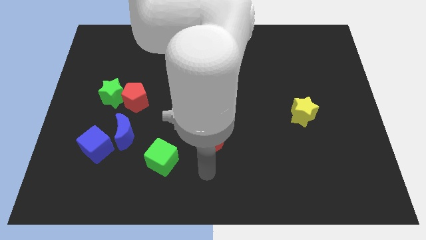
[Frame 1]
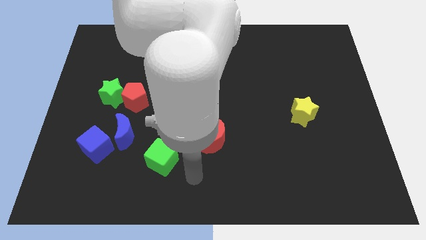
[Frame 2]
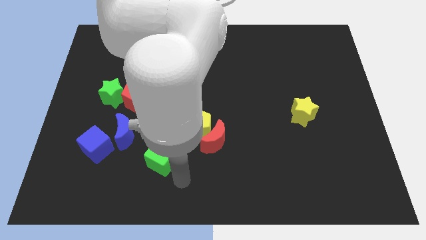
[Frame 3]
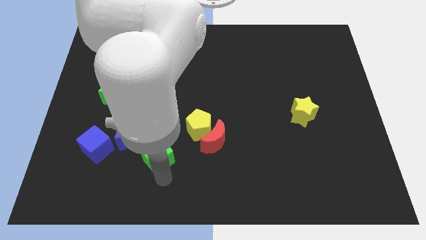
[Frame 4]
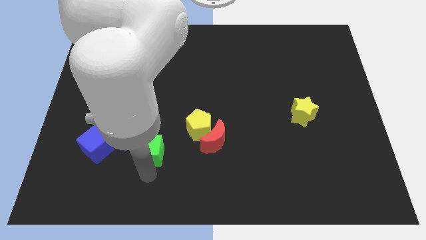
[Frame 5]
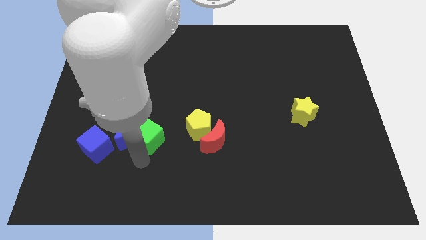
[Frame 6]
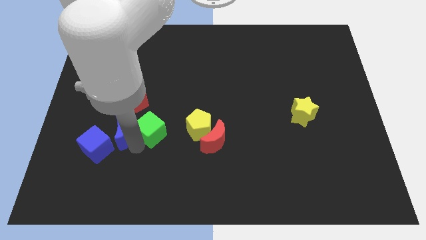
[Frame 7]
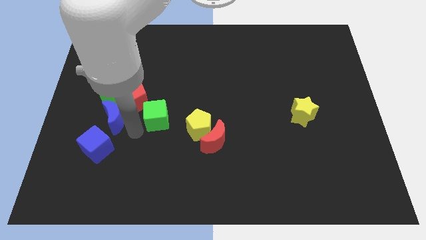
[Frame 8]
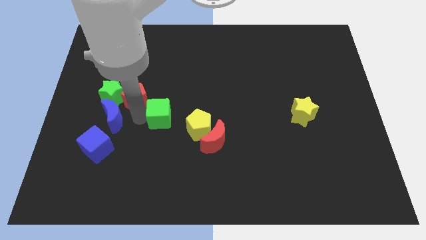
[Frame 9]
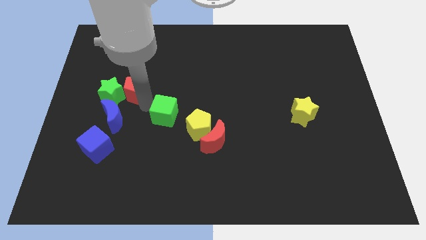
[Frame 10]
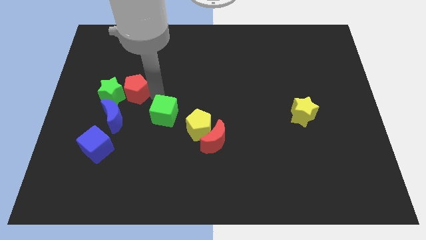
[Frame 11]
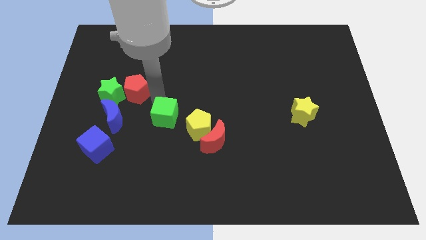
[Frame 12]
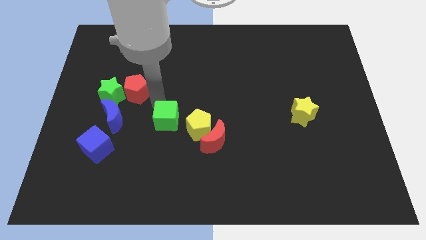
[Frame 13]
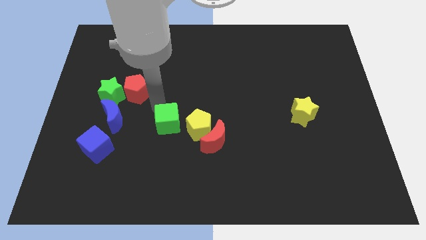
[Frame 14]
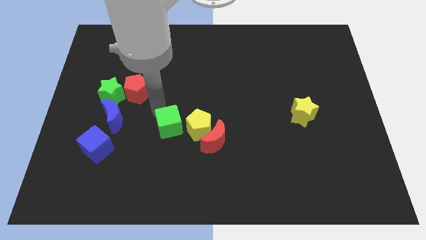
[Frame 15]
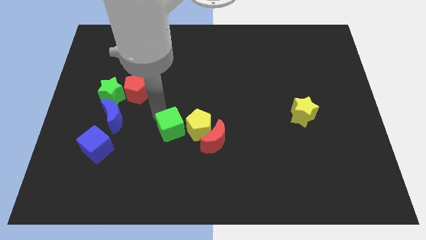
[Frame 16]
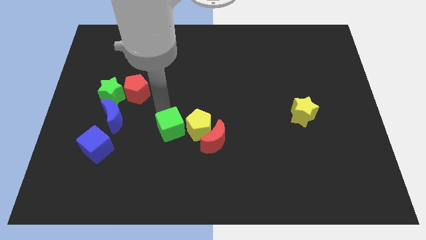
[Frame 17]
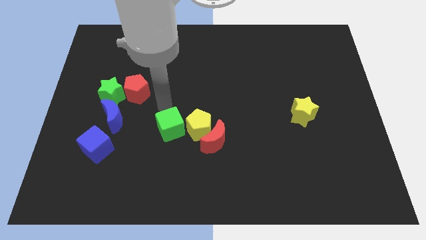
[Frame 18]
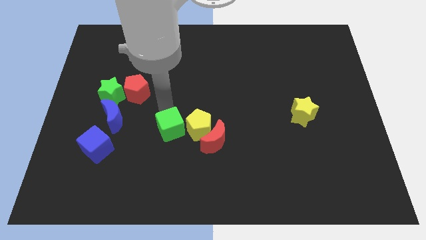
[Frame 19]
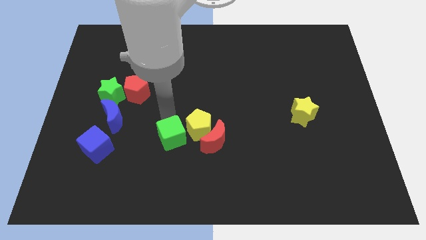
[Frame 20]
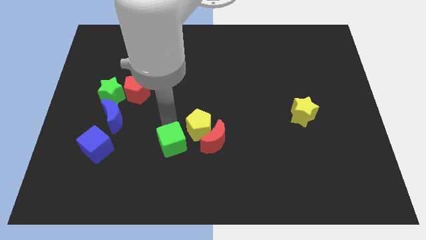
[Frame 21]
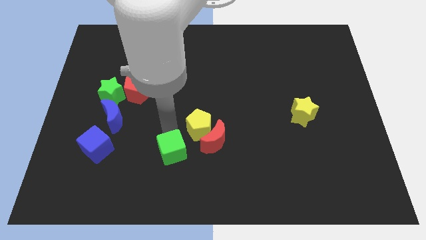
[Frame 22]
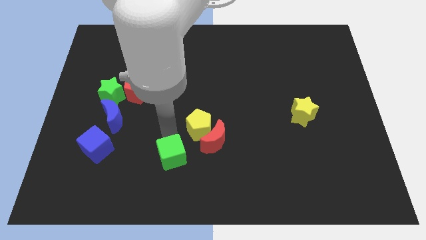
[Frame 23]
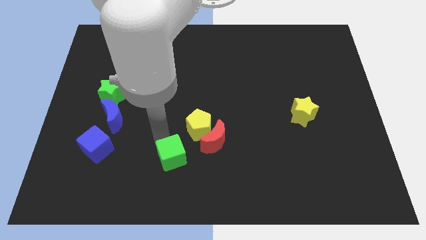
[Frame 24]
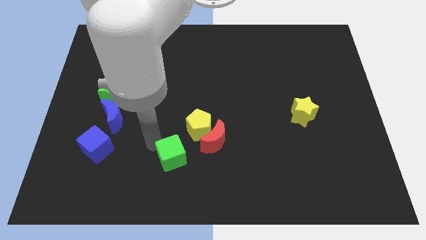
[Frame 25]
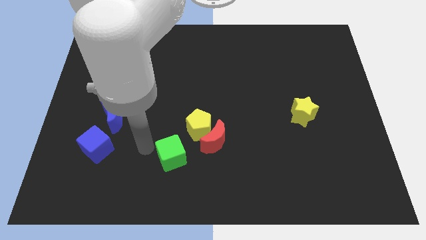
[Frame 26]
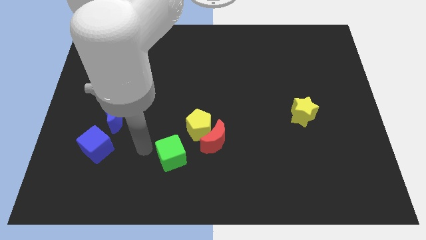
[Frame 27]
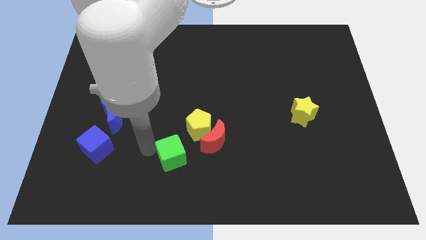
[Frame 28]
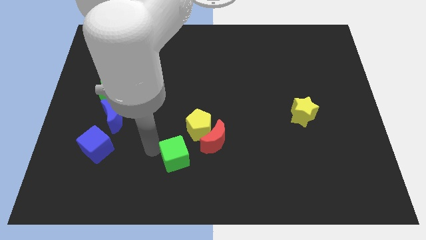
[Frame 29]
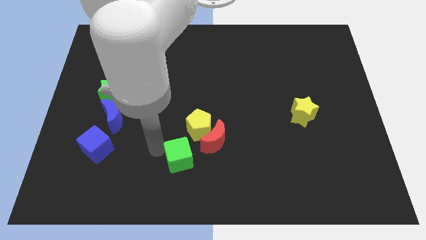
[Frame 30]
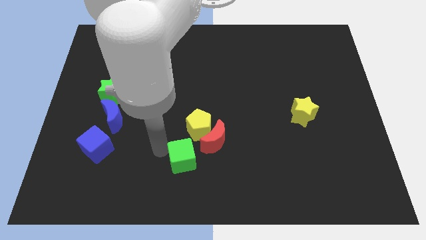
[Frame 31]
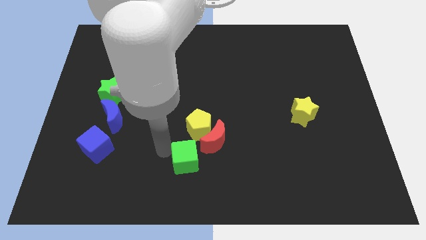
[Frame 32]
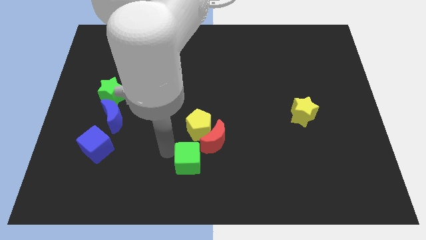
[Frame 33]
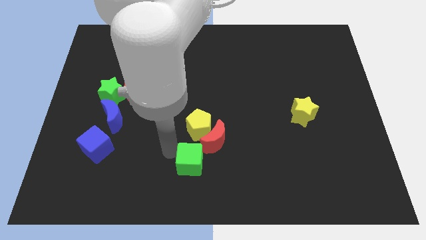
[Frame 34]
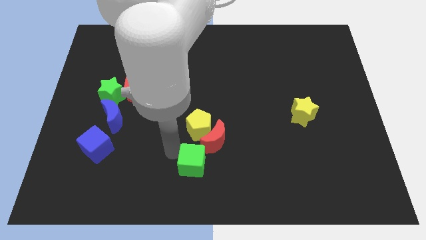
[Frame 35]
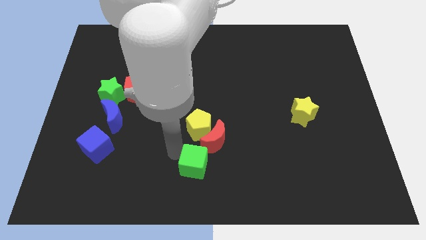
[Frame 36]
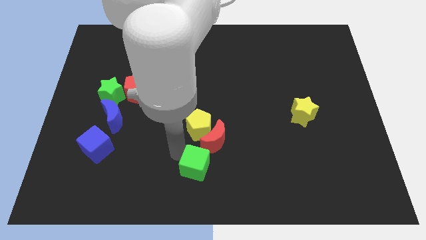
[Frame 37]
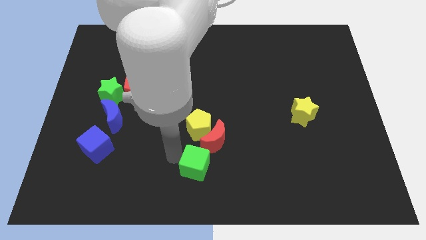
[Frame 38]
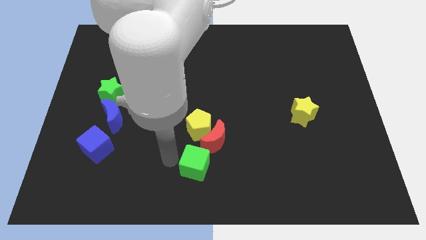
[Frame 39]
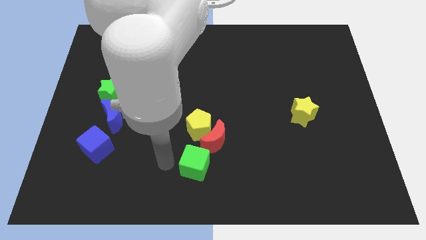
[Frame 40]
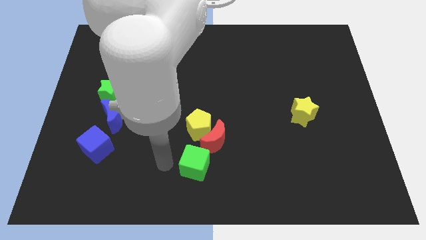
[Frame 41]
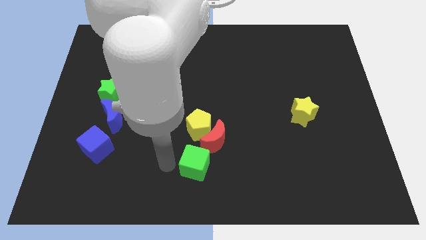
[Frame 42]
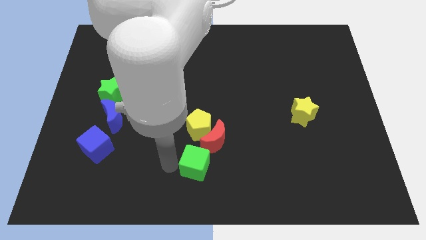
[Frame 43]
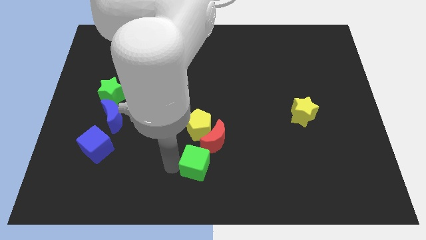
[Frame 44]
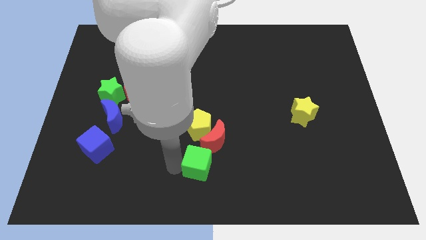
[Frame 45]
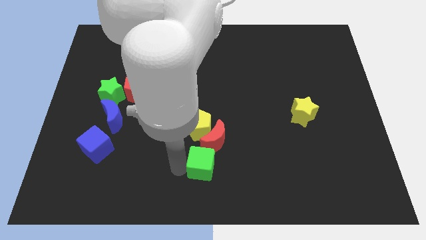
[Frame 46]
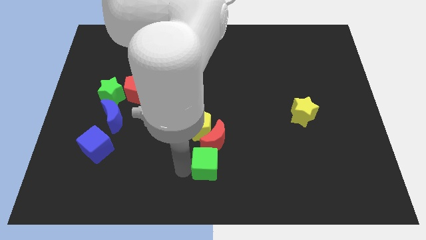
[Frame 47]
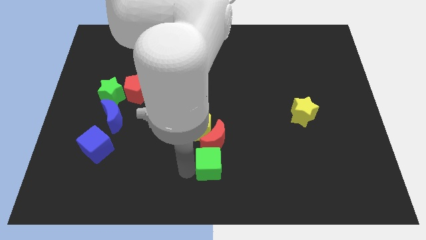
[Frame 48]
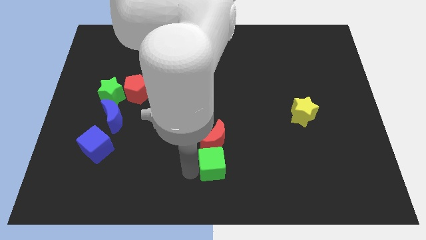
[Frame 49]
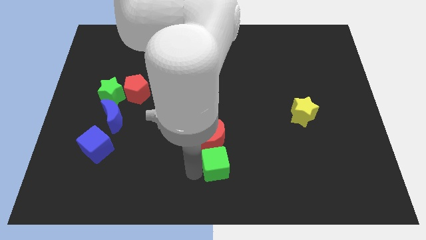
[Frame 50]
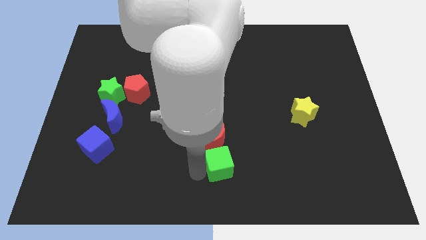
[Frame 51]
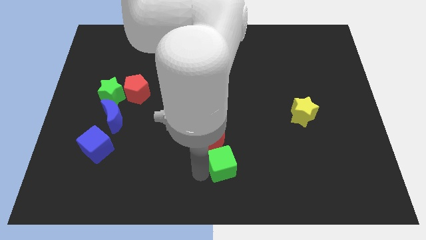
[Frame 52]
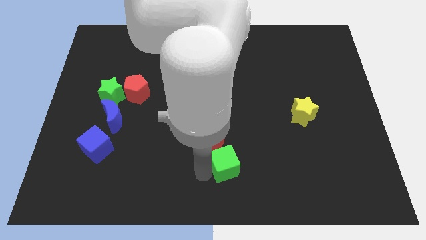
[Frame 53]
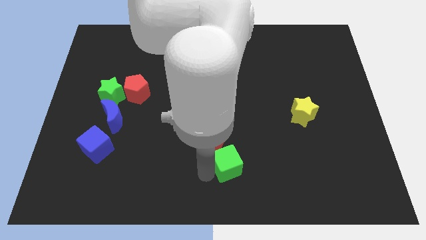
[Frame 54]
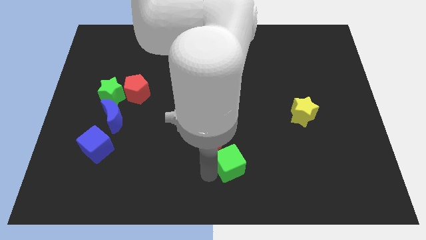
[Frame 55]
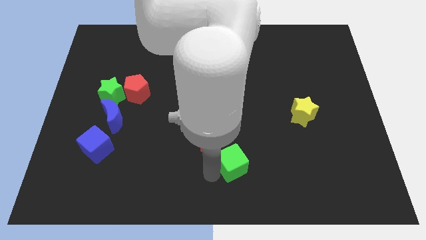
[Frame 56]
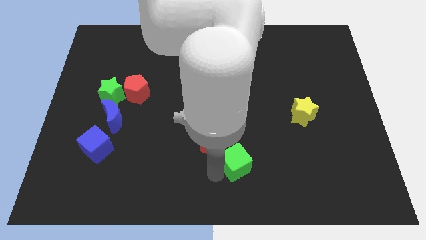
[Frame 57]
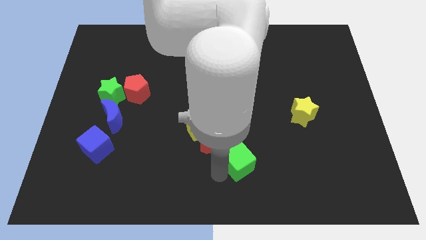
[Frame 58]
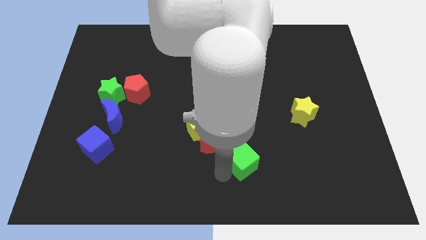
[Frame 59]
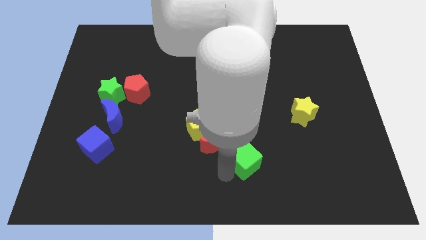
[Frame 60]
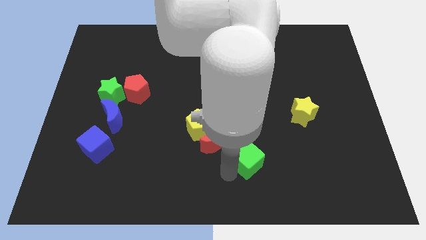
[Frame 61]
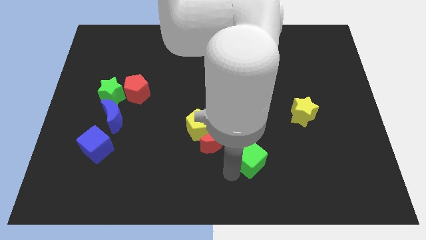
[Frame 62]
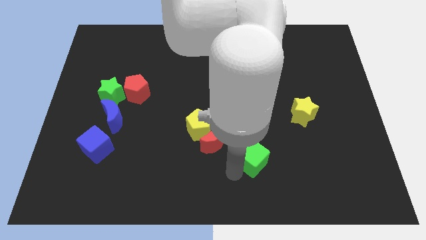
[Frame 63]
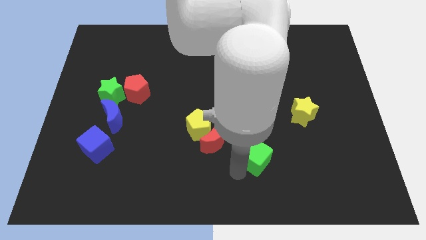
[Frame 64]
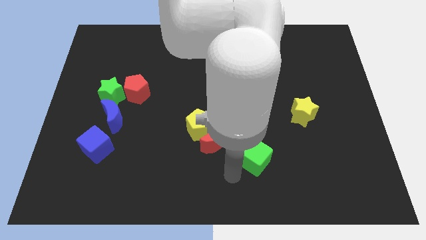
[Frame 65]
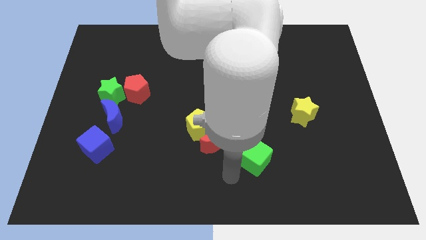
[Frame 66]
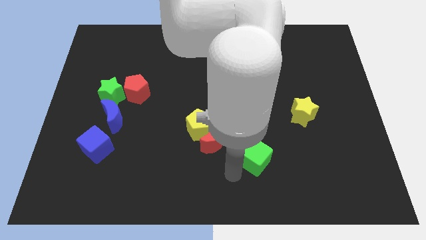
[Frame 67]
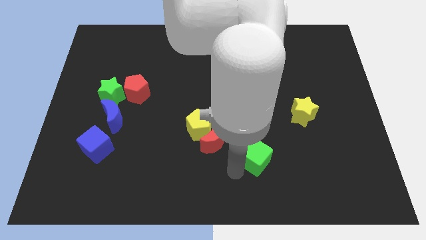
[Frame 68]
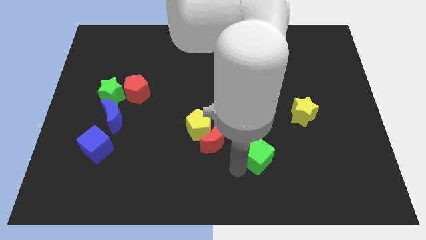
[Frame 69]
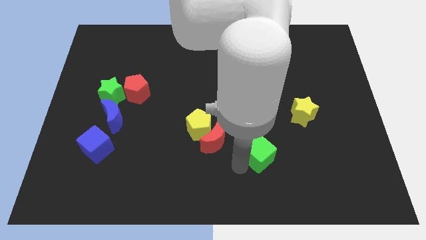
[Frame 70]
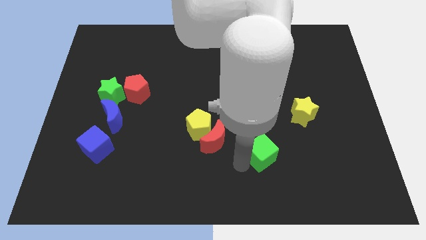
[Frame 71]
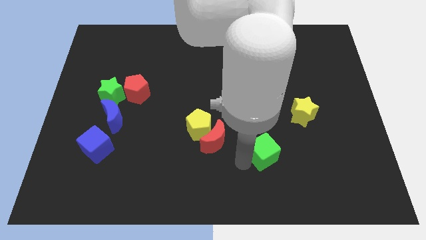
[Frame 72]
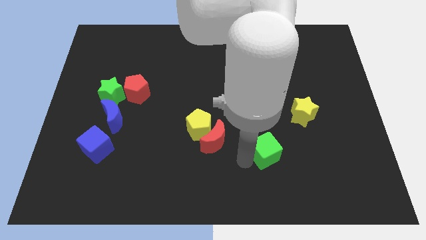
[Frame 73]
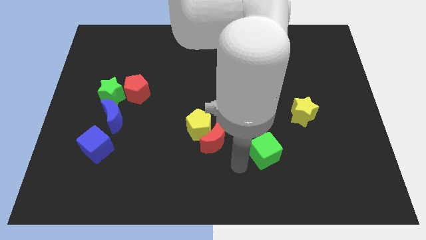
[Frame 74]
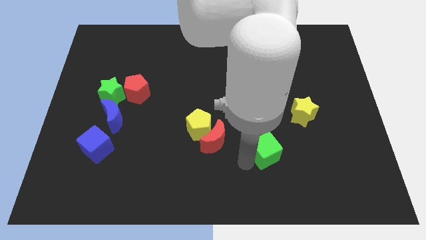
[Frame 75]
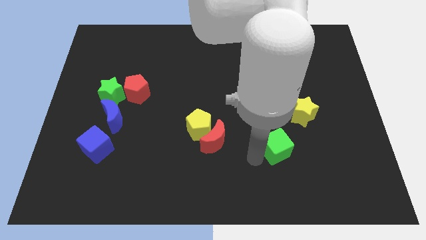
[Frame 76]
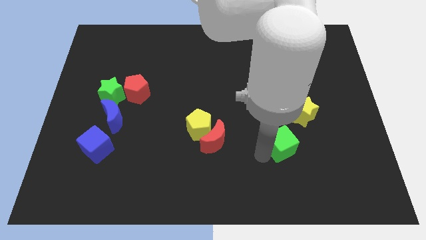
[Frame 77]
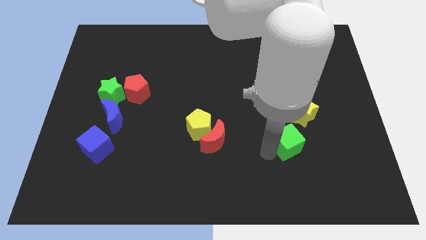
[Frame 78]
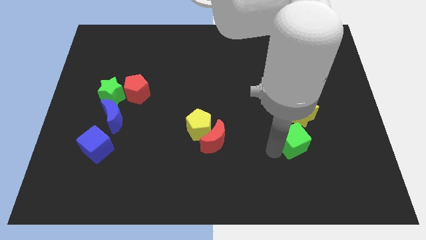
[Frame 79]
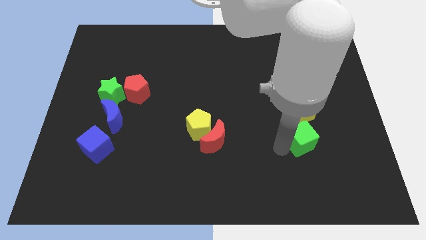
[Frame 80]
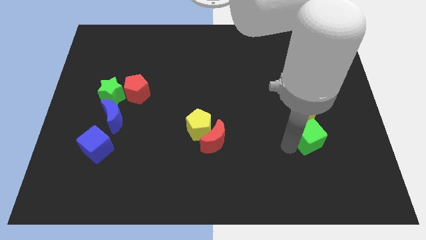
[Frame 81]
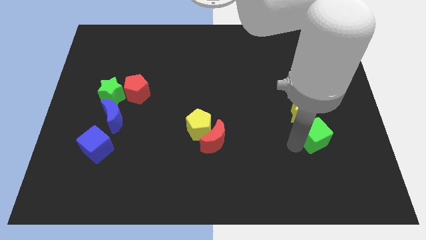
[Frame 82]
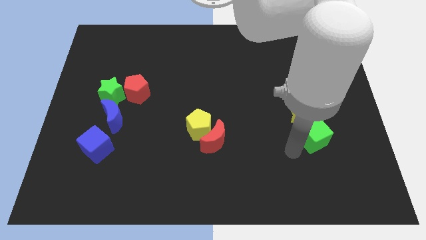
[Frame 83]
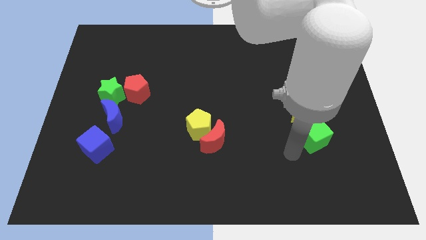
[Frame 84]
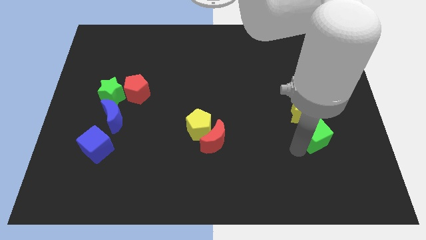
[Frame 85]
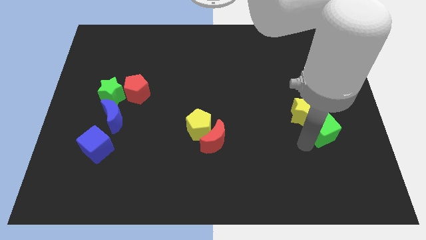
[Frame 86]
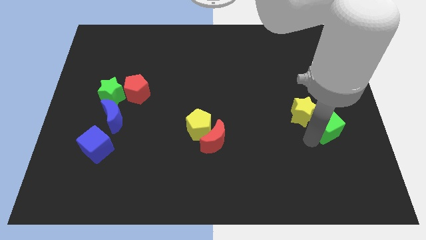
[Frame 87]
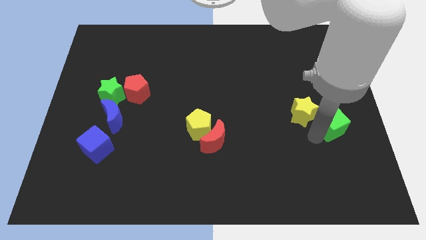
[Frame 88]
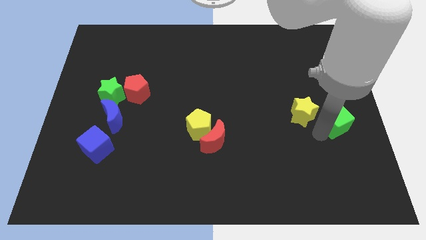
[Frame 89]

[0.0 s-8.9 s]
push the green cube to the right side
